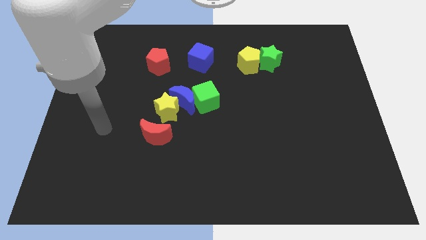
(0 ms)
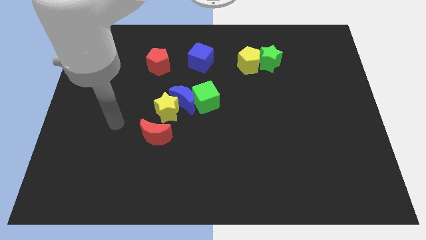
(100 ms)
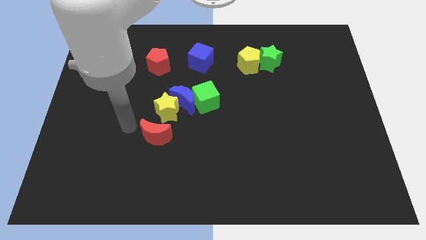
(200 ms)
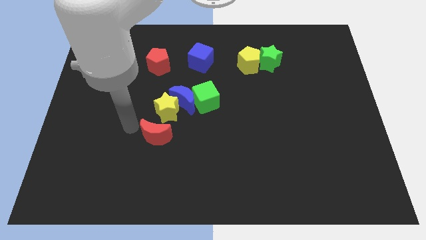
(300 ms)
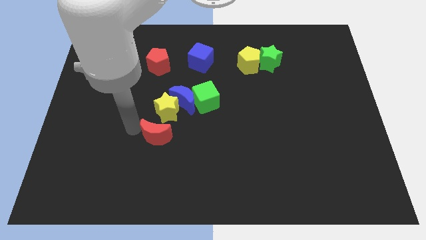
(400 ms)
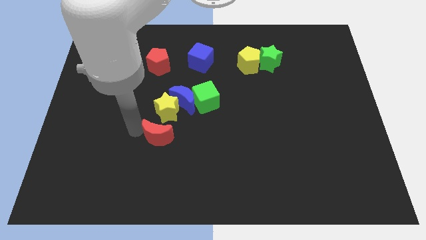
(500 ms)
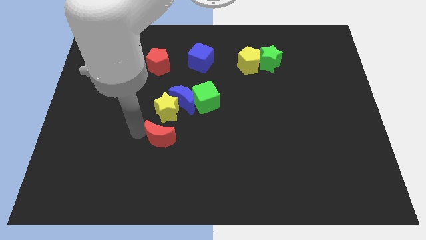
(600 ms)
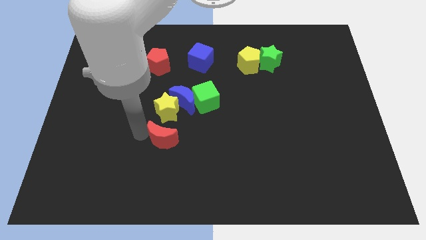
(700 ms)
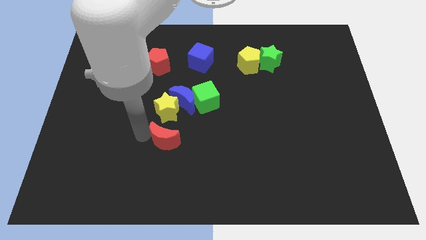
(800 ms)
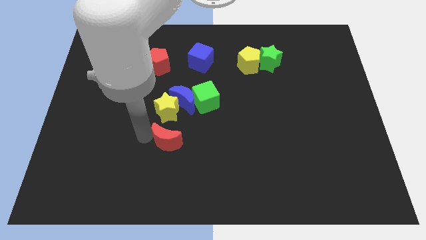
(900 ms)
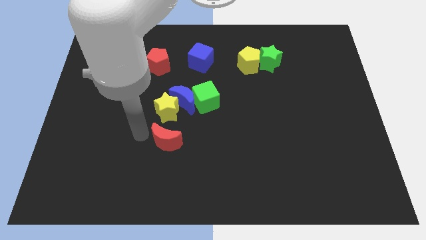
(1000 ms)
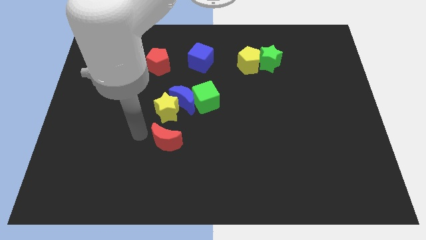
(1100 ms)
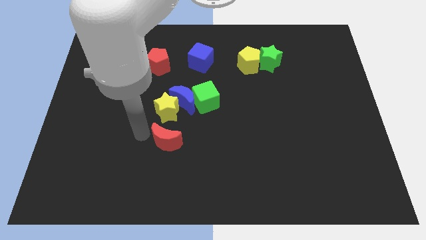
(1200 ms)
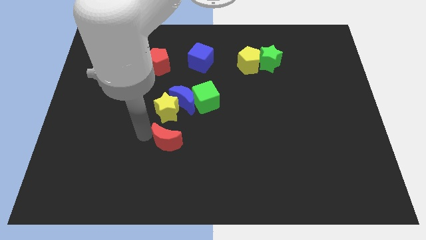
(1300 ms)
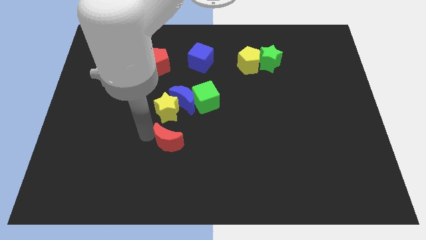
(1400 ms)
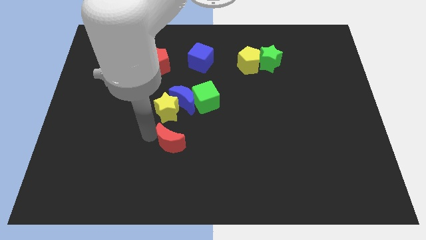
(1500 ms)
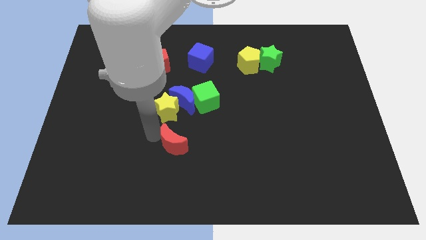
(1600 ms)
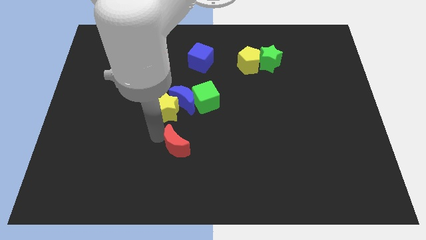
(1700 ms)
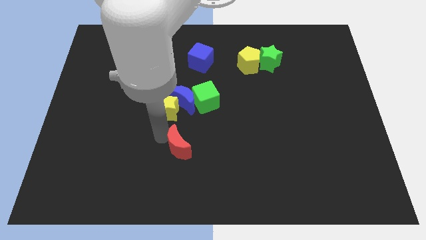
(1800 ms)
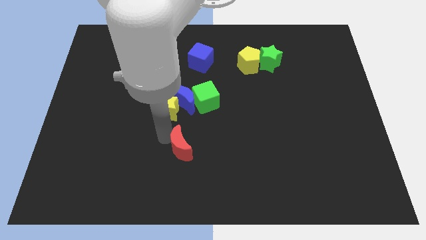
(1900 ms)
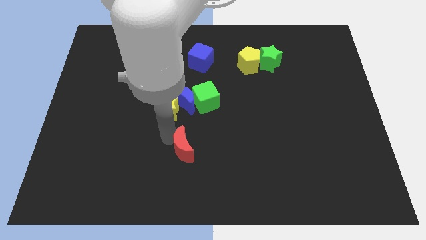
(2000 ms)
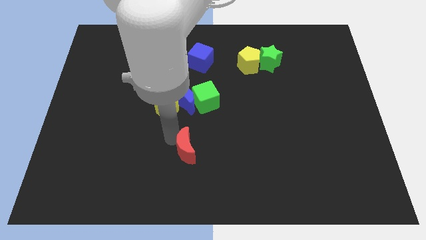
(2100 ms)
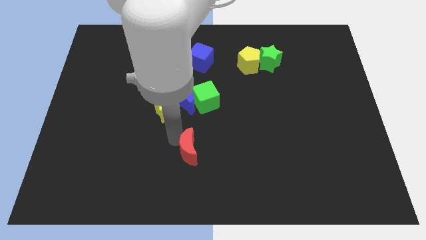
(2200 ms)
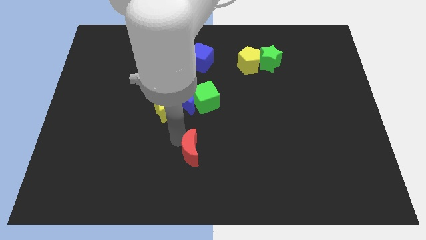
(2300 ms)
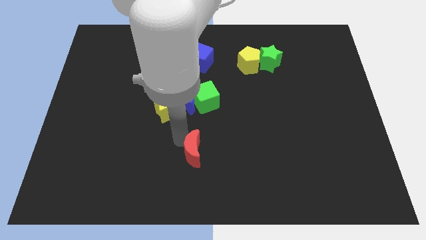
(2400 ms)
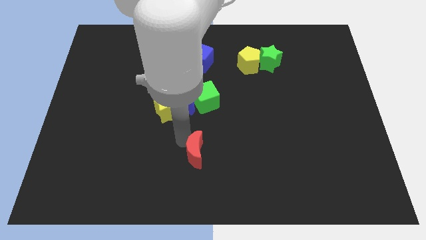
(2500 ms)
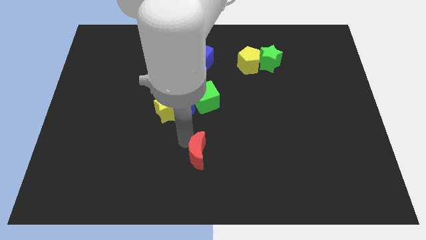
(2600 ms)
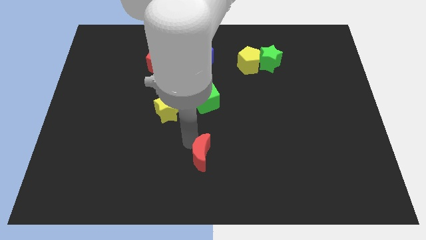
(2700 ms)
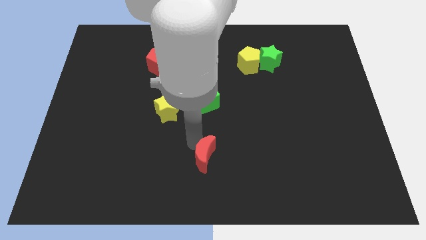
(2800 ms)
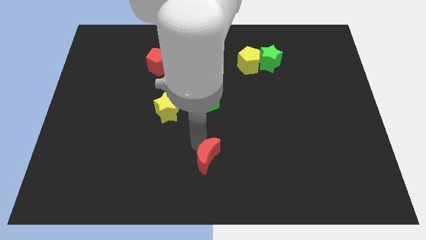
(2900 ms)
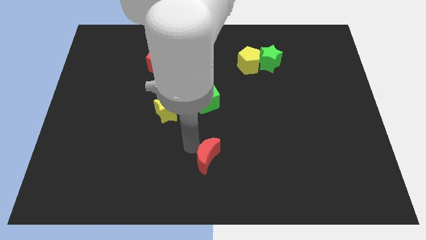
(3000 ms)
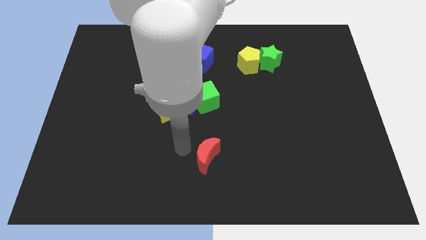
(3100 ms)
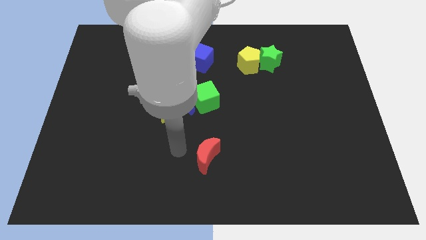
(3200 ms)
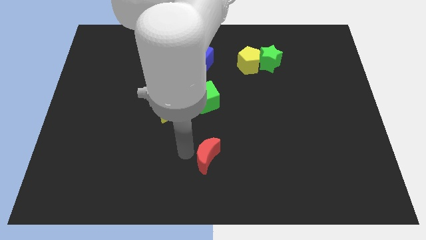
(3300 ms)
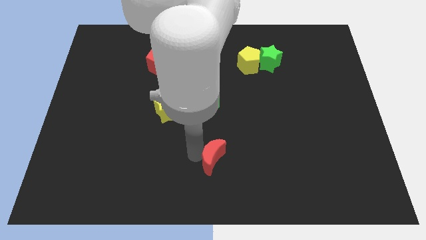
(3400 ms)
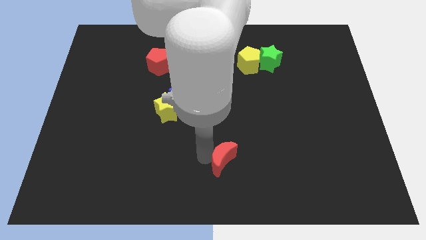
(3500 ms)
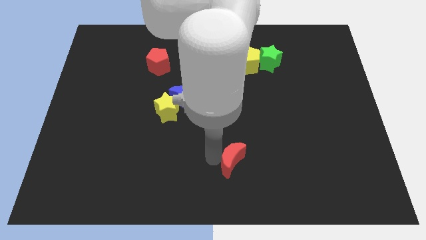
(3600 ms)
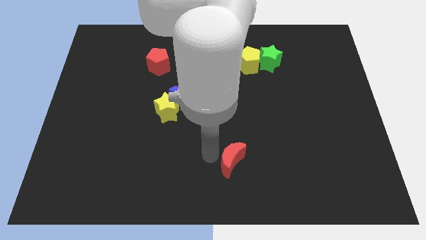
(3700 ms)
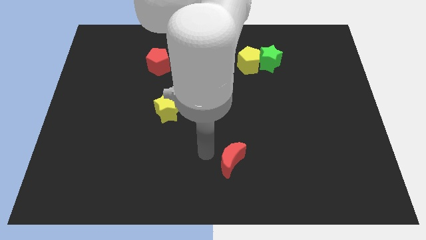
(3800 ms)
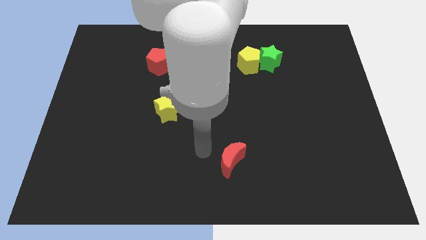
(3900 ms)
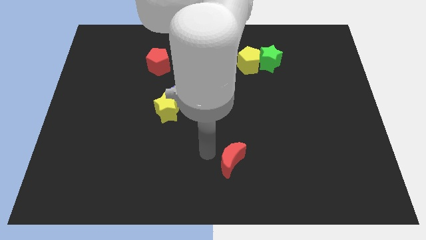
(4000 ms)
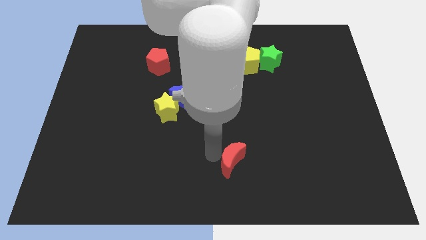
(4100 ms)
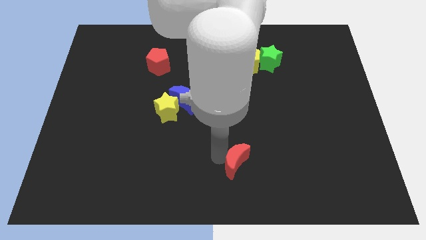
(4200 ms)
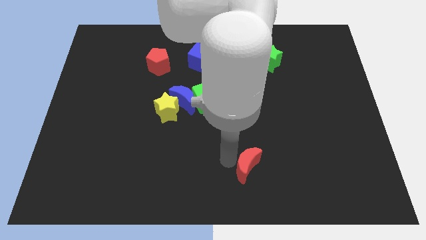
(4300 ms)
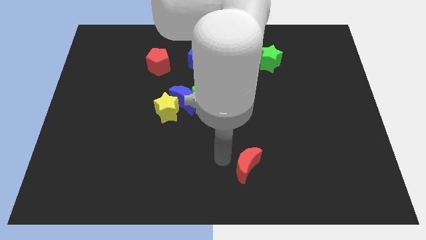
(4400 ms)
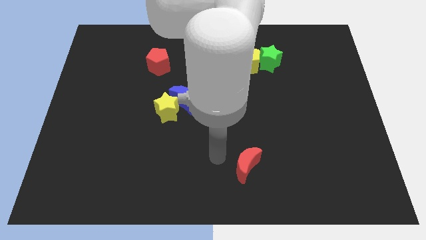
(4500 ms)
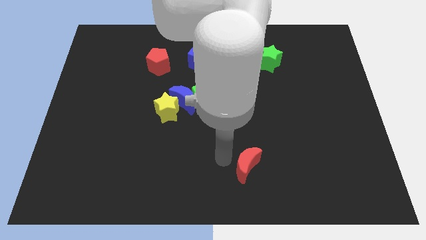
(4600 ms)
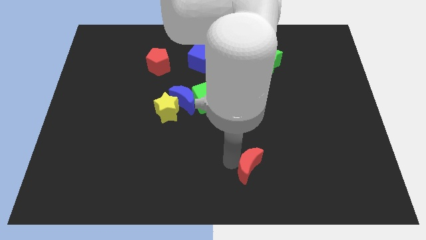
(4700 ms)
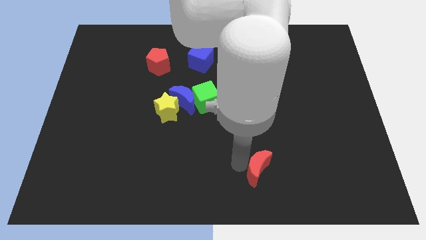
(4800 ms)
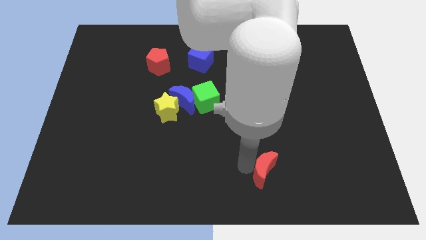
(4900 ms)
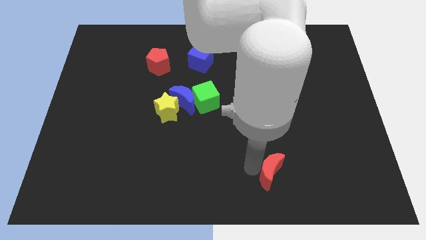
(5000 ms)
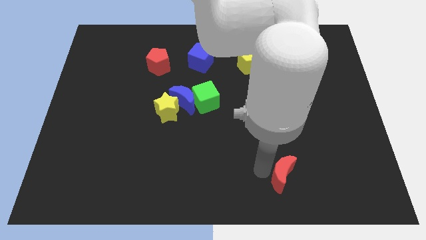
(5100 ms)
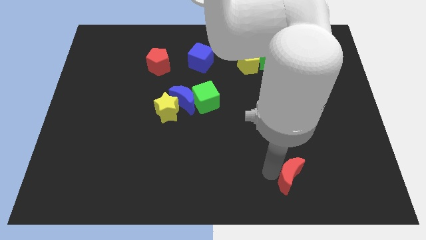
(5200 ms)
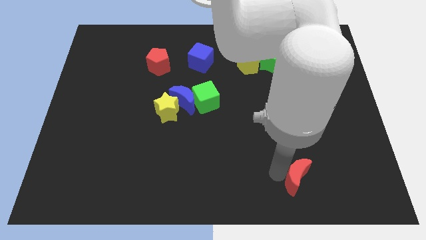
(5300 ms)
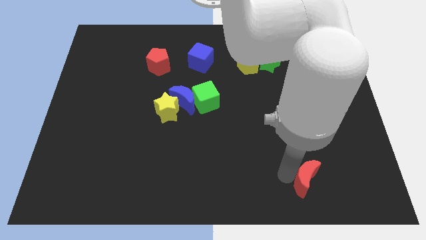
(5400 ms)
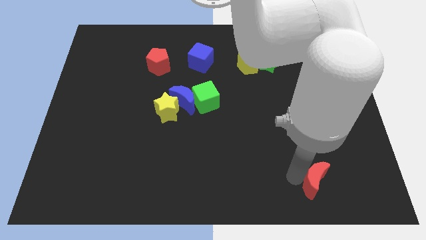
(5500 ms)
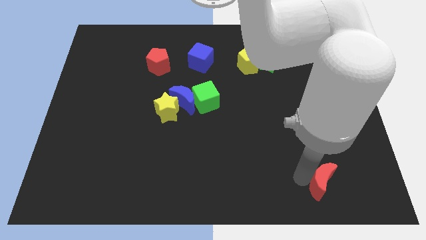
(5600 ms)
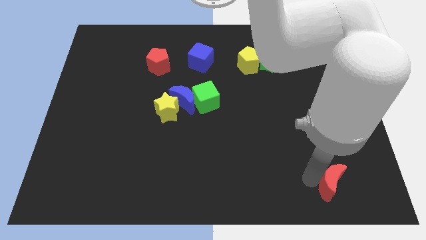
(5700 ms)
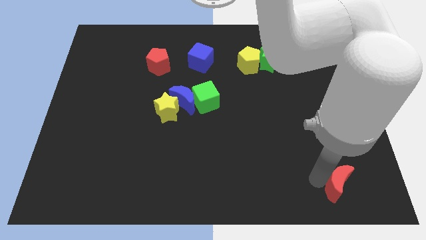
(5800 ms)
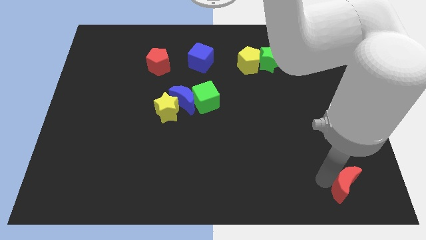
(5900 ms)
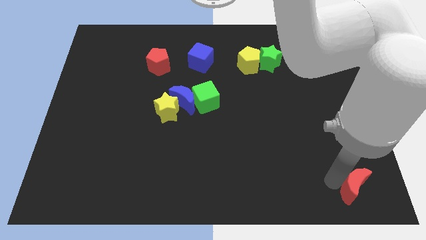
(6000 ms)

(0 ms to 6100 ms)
move the red moon to the lower right corner

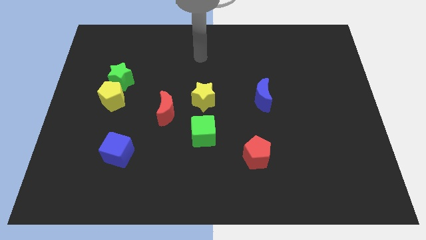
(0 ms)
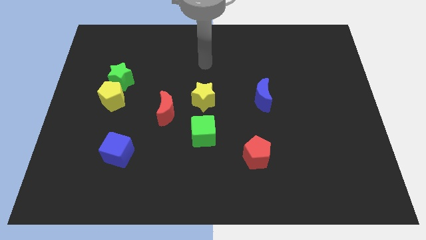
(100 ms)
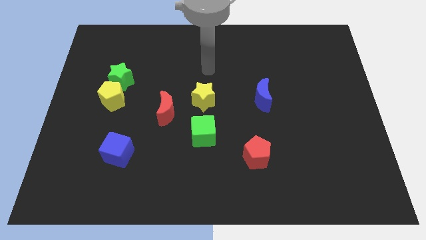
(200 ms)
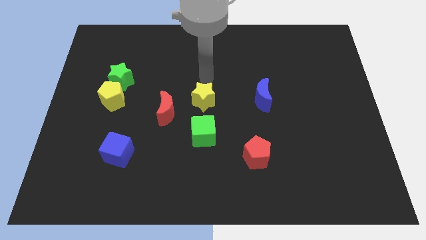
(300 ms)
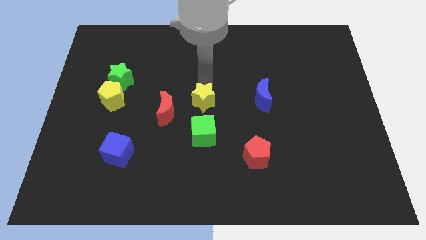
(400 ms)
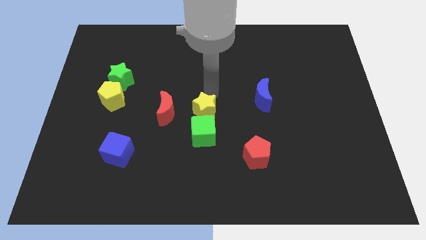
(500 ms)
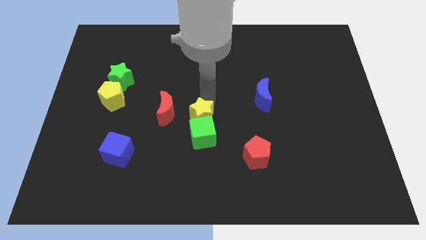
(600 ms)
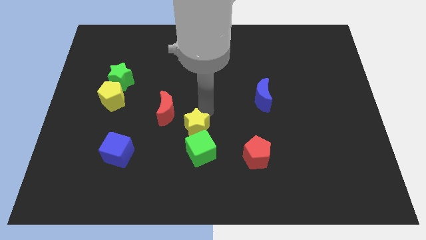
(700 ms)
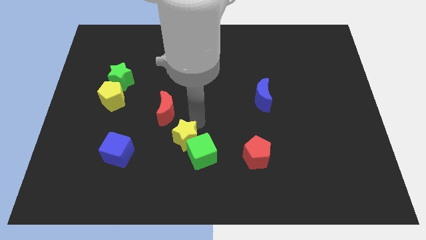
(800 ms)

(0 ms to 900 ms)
push the green cube to the bottom
